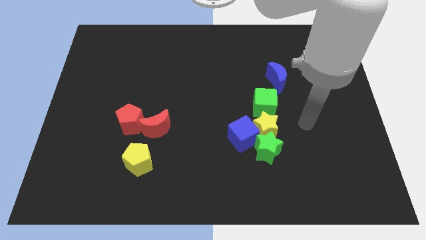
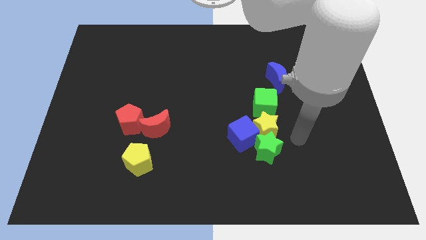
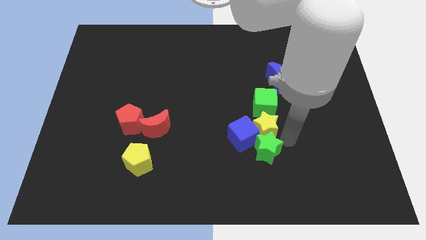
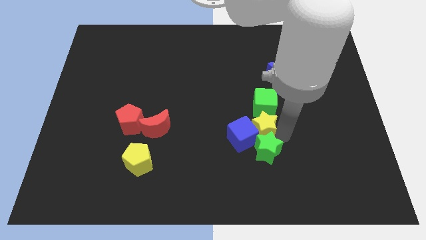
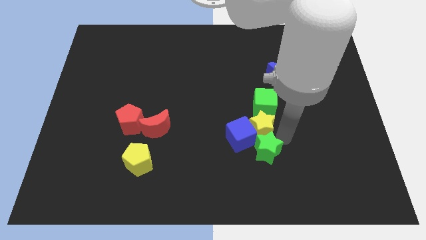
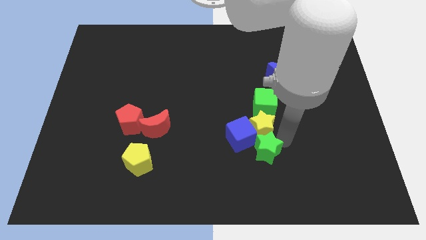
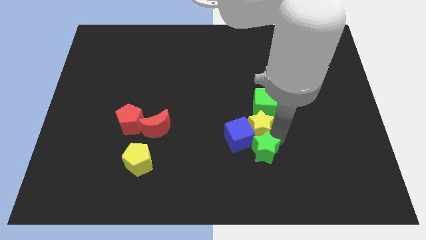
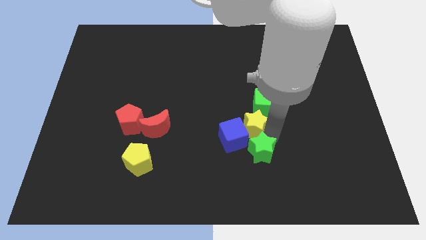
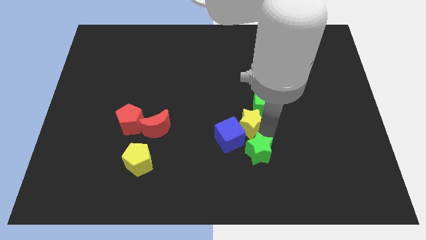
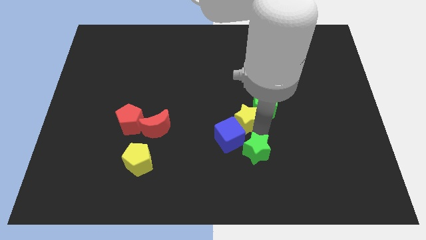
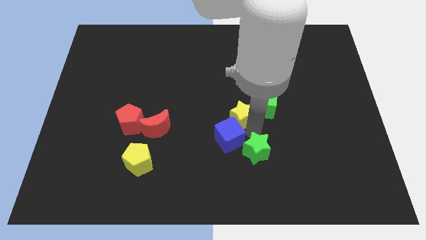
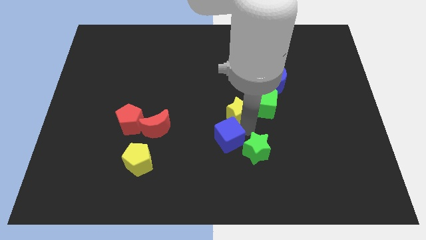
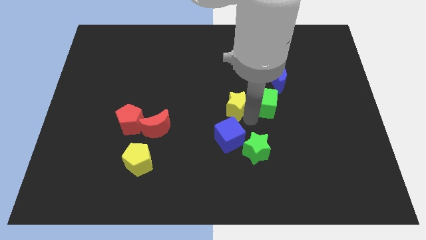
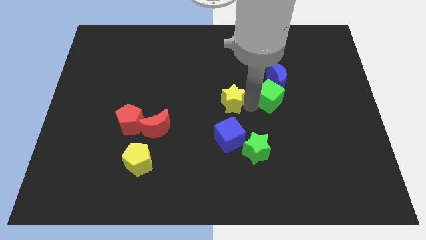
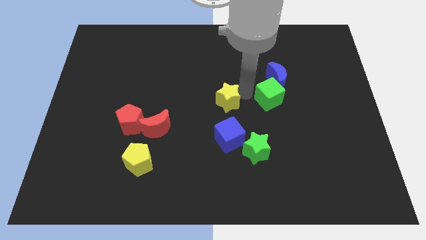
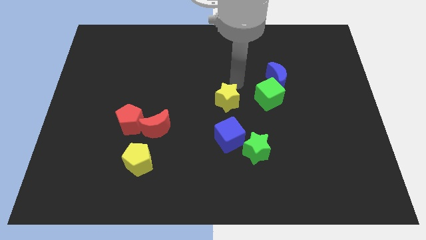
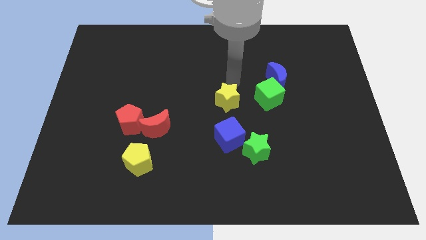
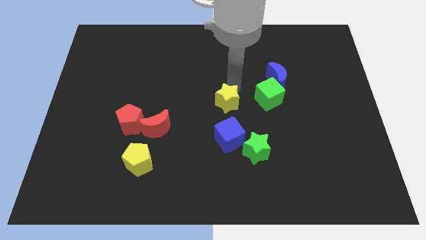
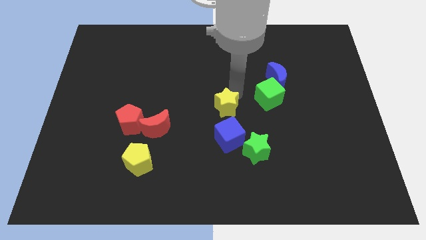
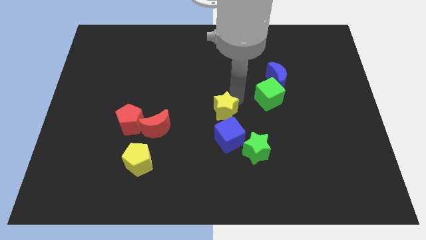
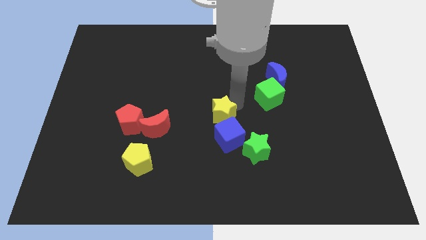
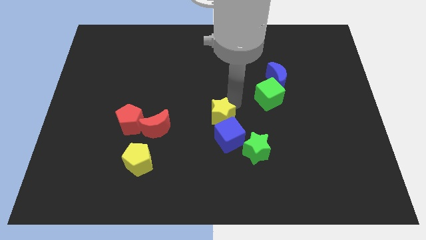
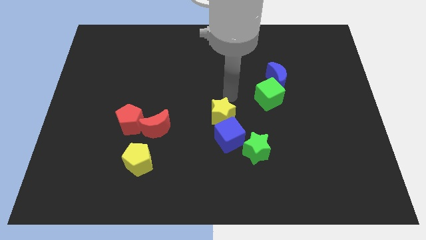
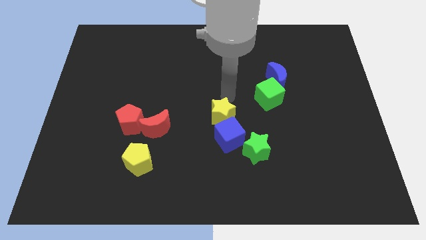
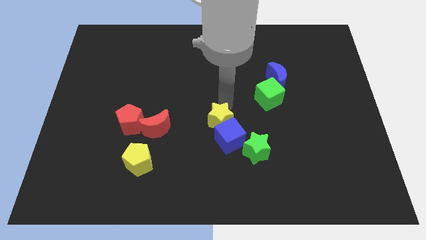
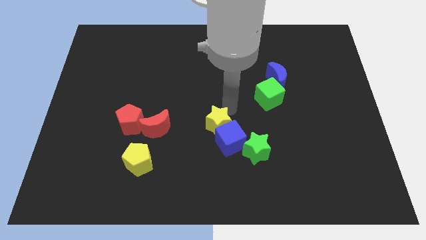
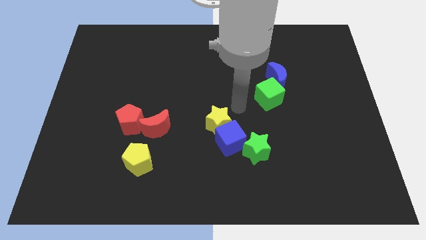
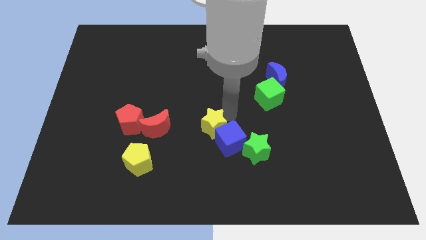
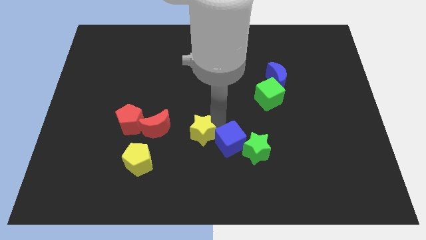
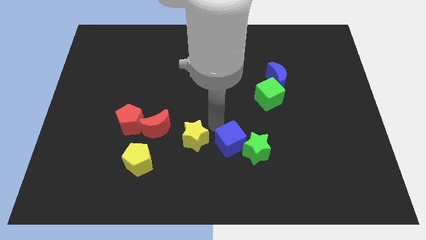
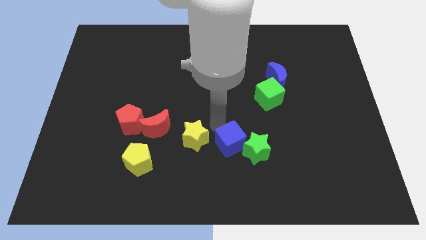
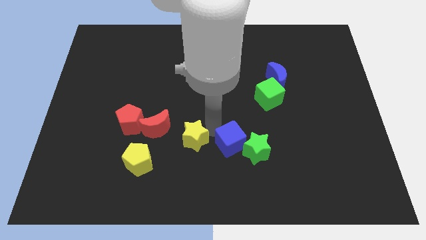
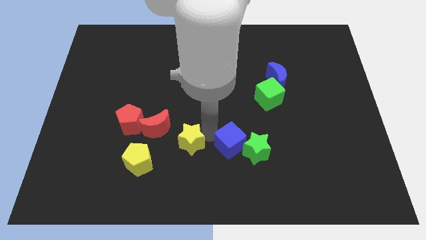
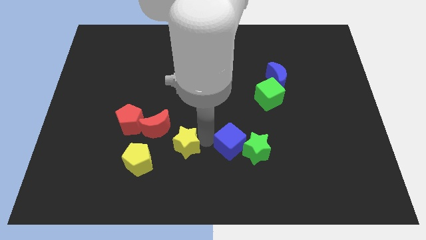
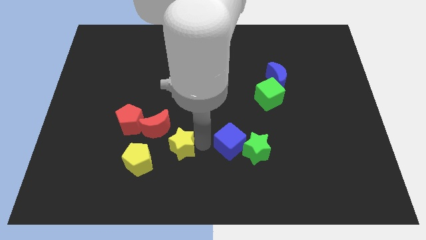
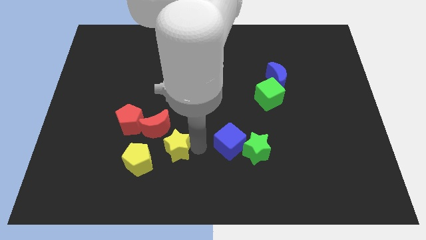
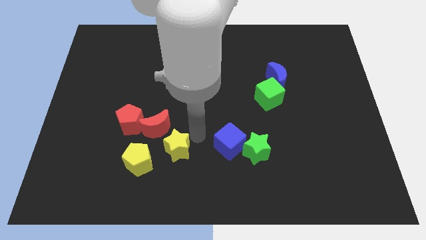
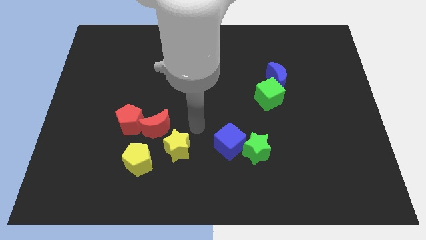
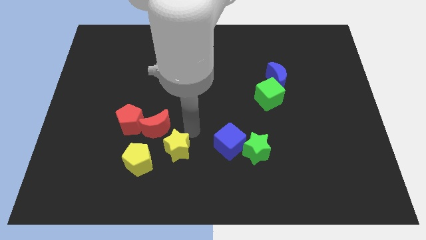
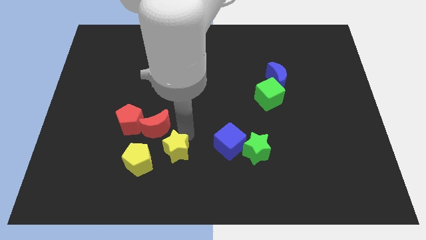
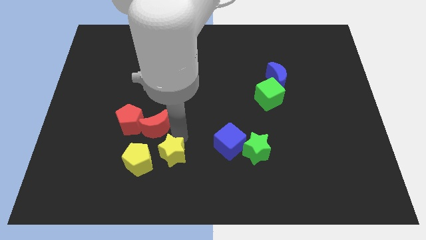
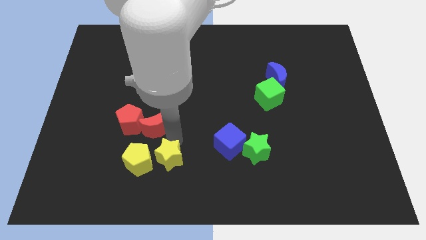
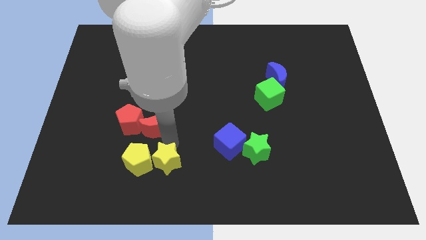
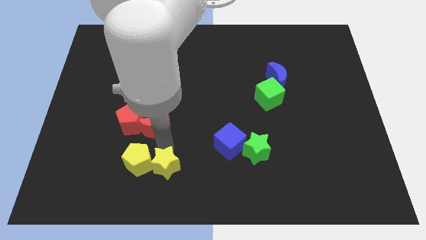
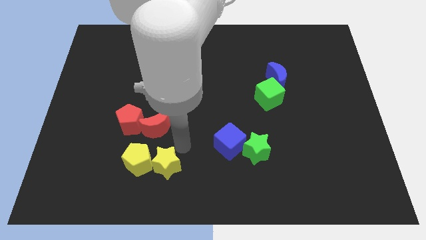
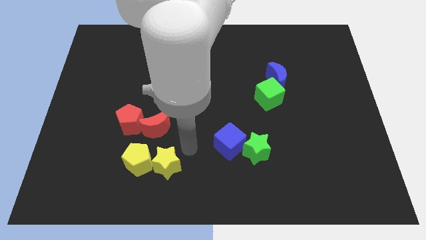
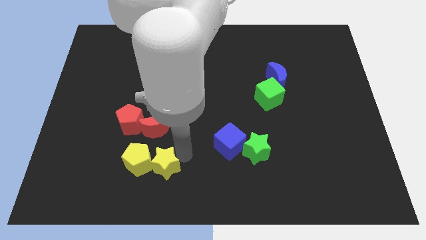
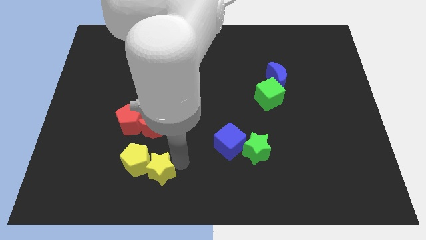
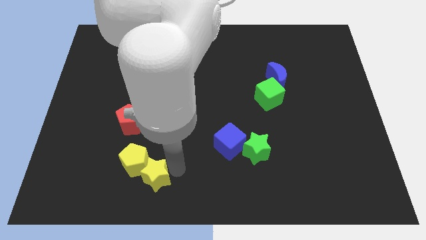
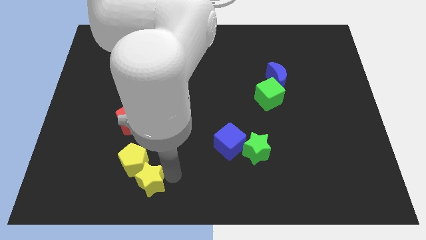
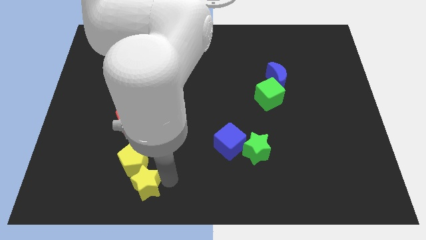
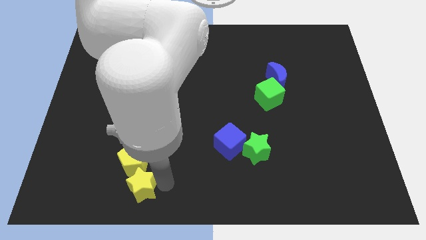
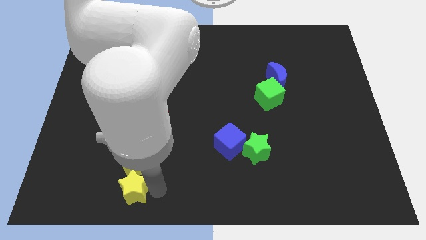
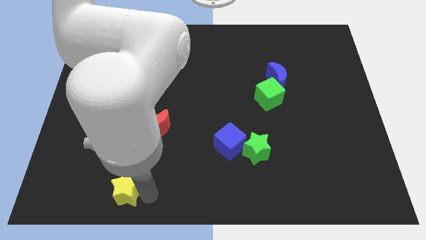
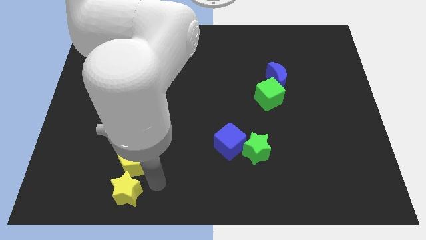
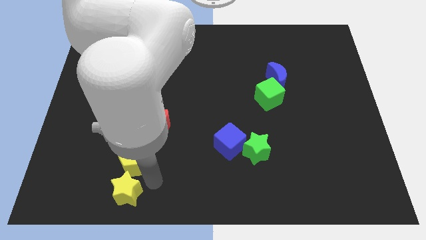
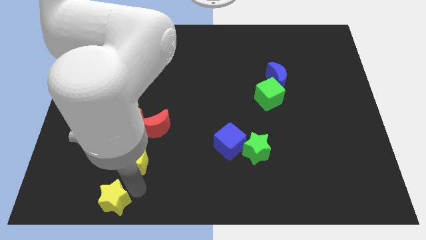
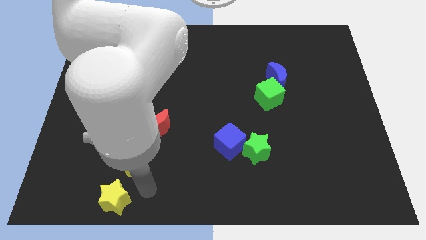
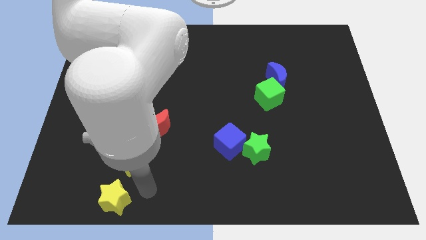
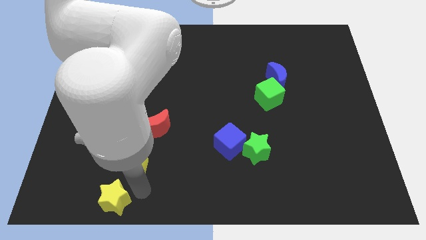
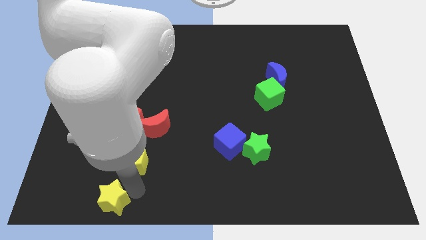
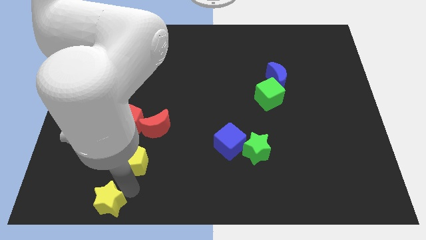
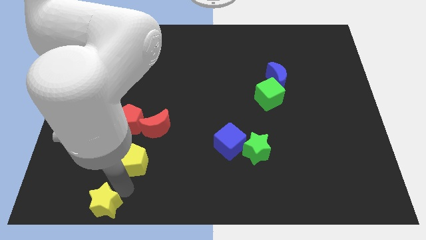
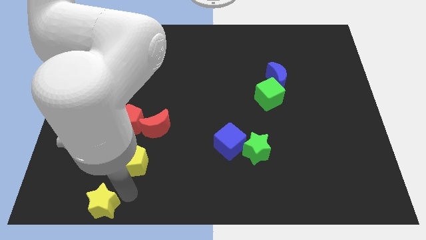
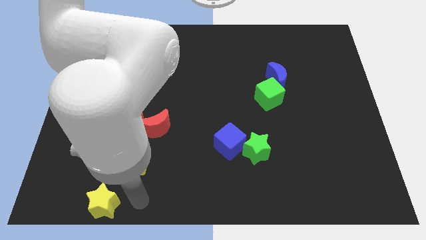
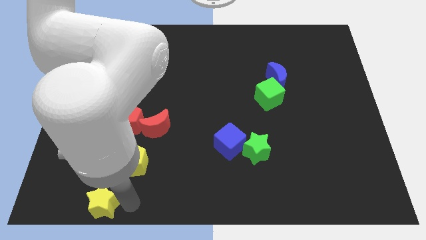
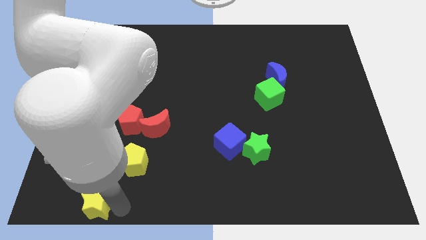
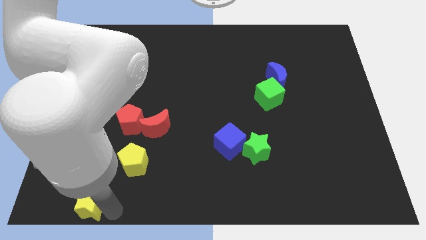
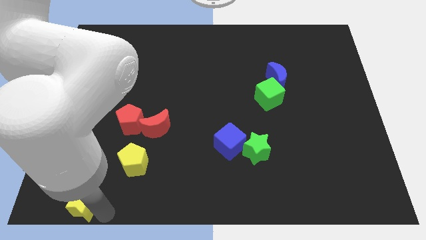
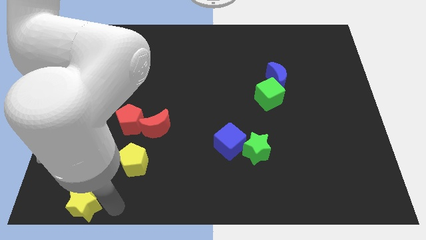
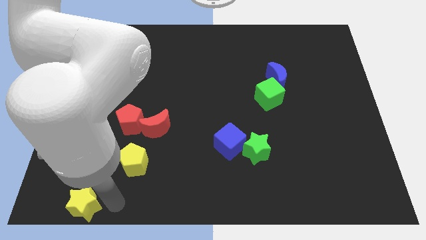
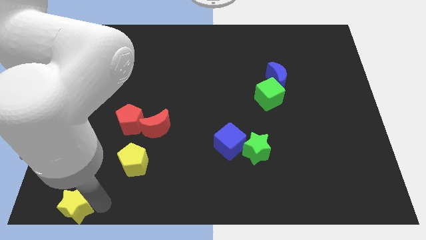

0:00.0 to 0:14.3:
slide the yellow star to the lower left corner
